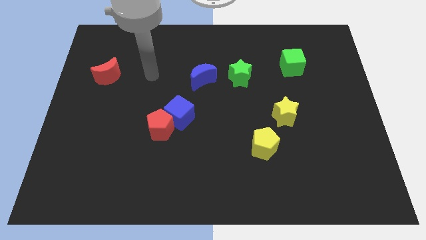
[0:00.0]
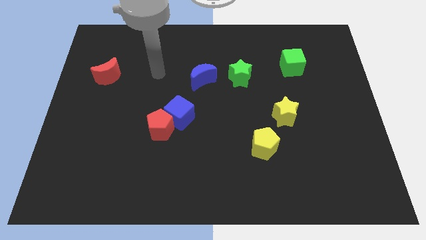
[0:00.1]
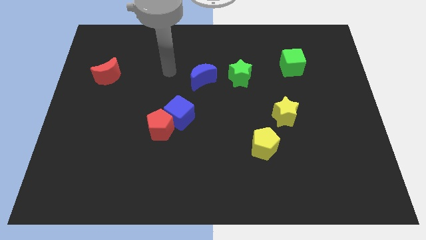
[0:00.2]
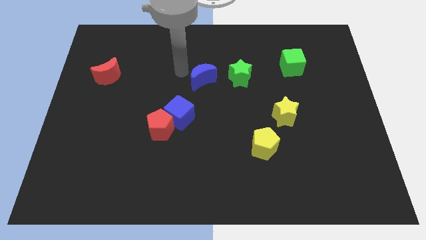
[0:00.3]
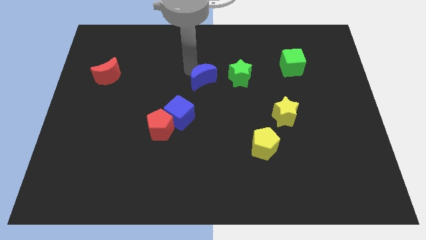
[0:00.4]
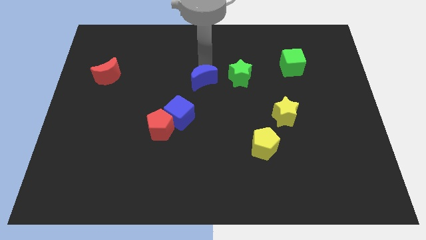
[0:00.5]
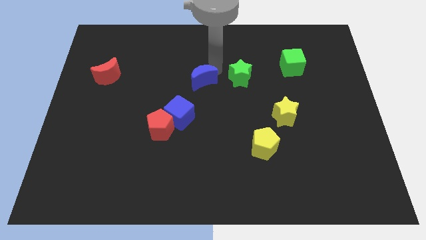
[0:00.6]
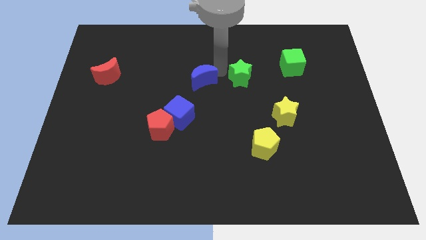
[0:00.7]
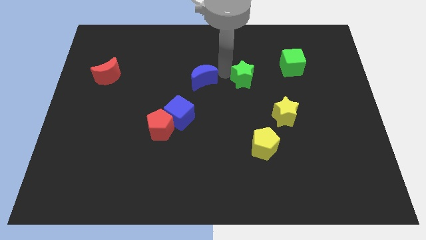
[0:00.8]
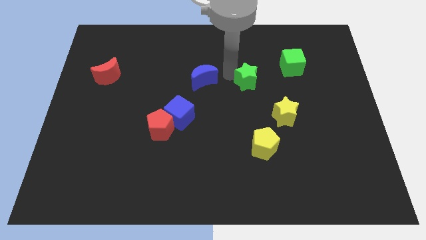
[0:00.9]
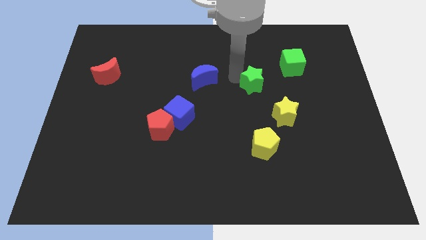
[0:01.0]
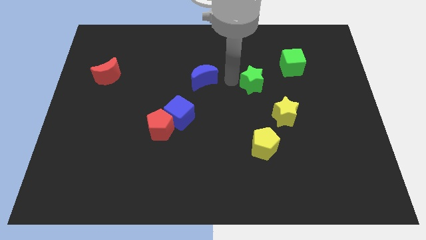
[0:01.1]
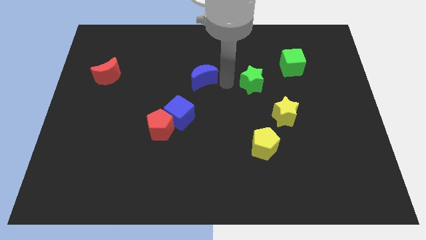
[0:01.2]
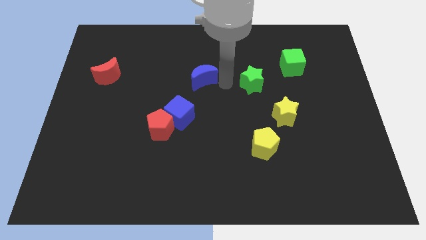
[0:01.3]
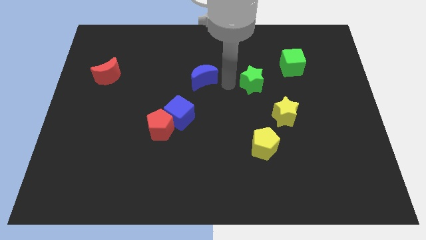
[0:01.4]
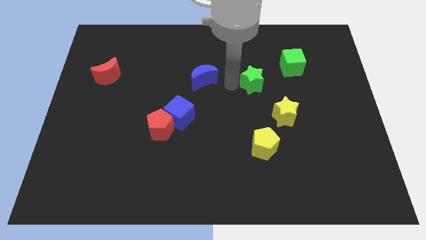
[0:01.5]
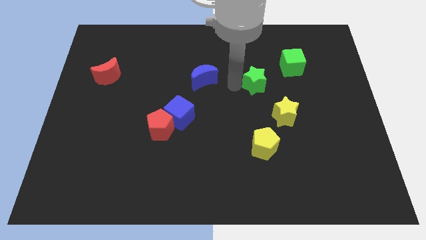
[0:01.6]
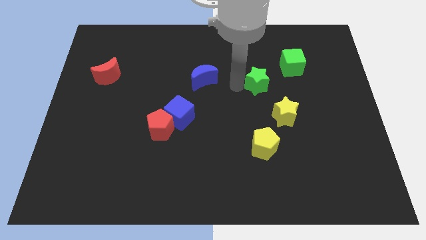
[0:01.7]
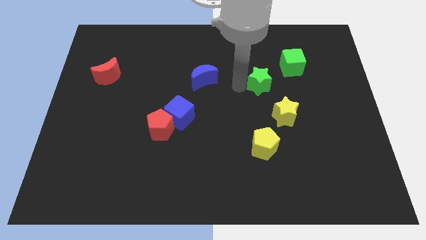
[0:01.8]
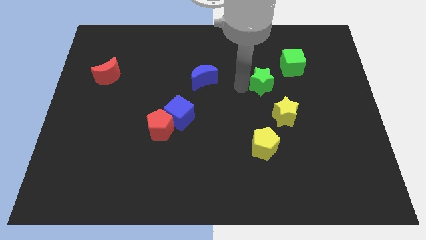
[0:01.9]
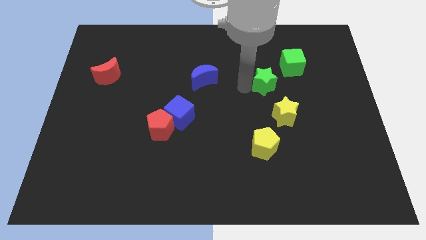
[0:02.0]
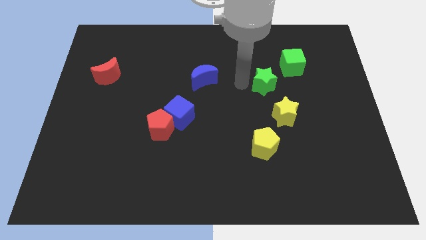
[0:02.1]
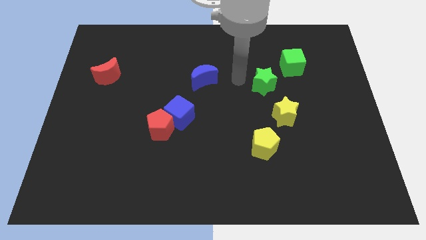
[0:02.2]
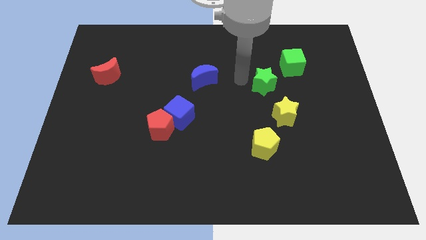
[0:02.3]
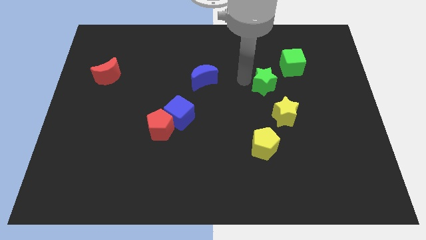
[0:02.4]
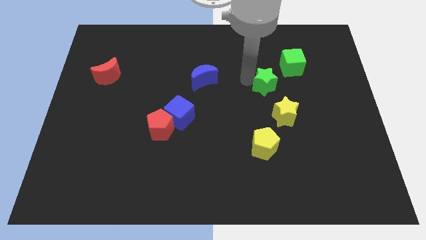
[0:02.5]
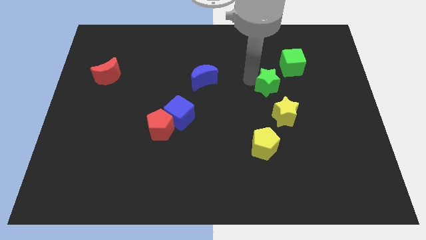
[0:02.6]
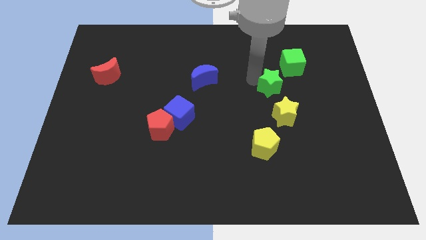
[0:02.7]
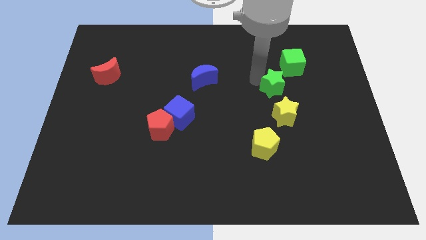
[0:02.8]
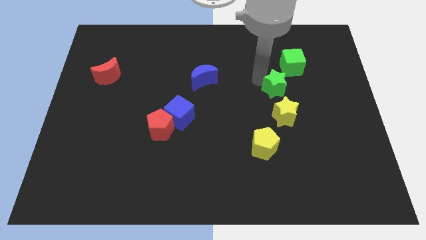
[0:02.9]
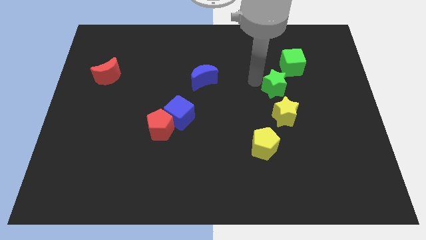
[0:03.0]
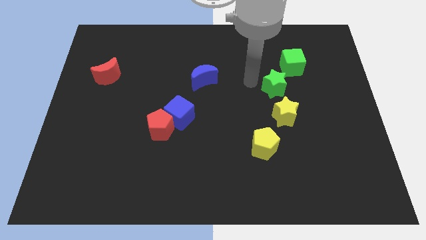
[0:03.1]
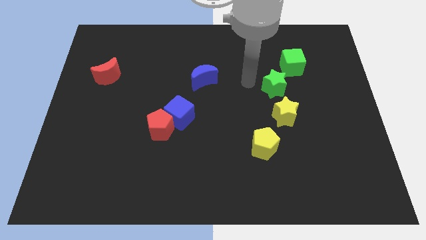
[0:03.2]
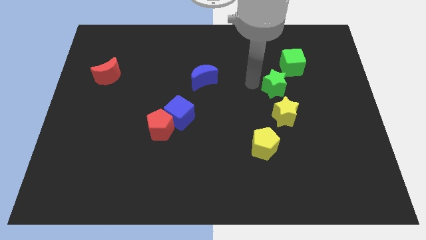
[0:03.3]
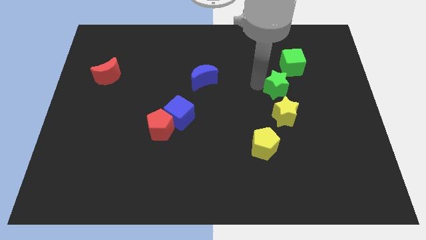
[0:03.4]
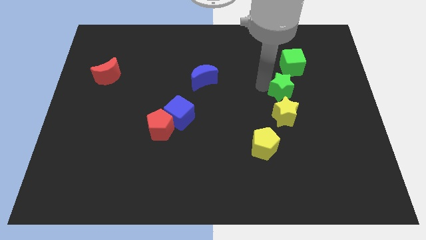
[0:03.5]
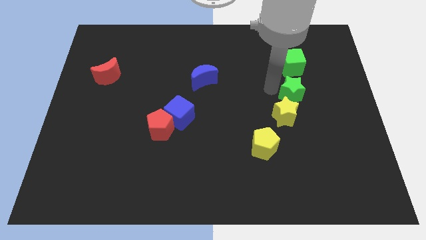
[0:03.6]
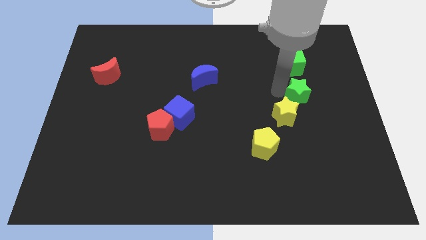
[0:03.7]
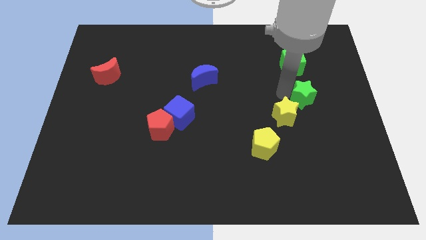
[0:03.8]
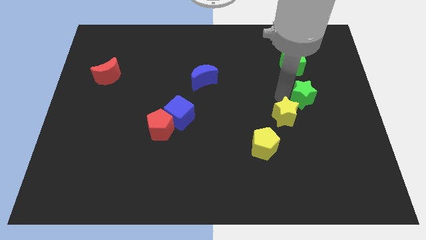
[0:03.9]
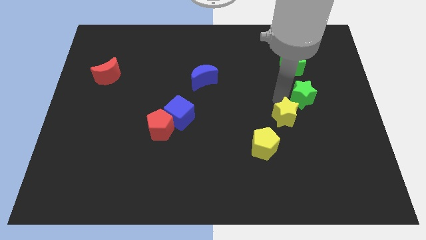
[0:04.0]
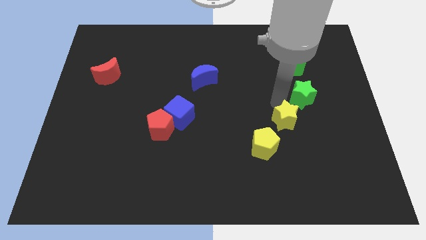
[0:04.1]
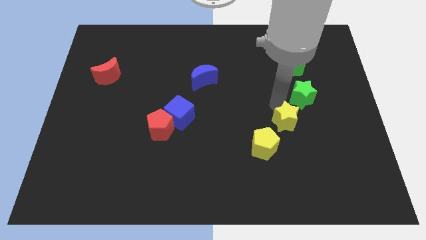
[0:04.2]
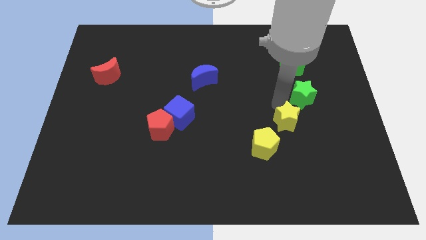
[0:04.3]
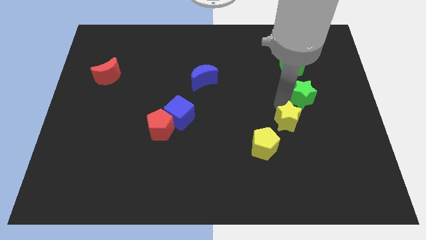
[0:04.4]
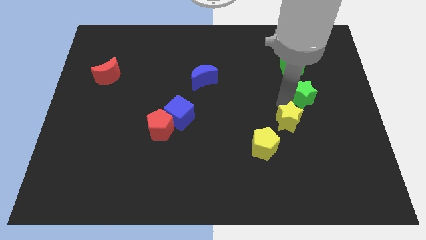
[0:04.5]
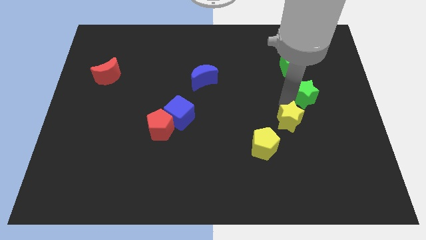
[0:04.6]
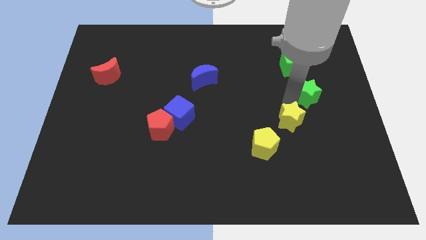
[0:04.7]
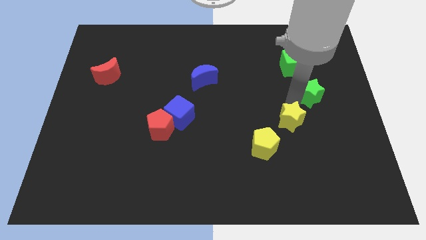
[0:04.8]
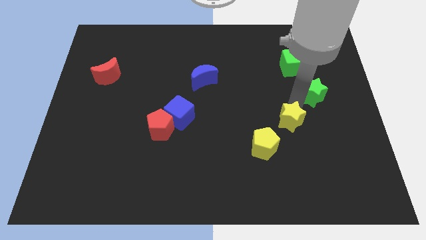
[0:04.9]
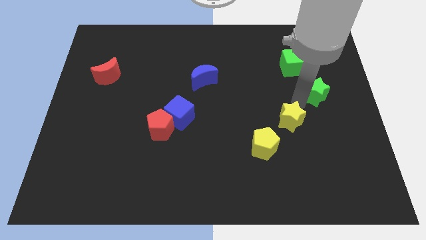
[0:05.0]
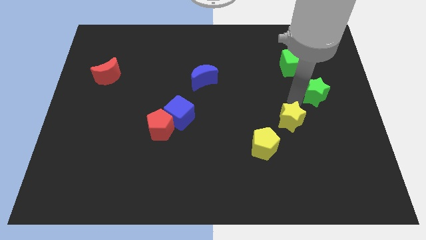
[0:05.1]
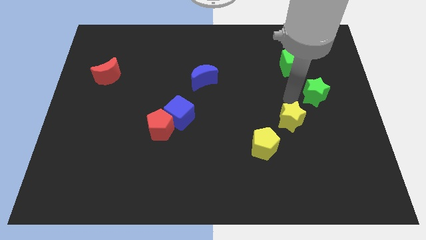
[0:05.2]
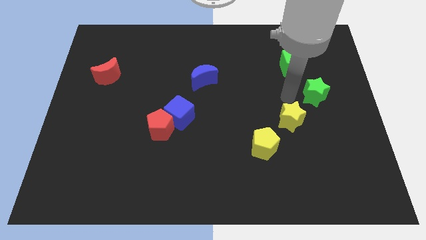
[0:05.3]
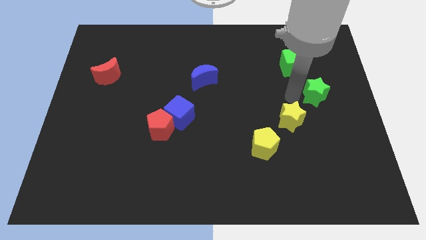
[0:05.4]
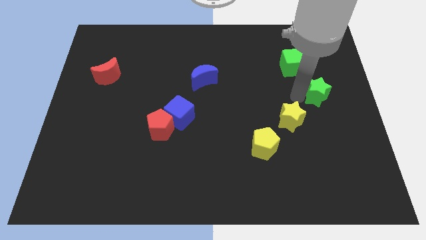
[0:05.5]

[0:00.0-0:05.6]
push the green star to the right side of the board
